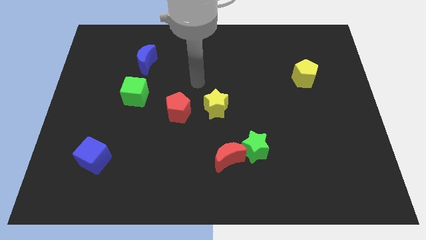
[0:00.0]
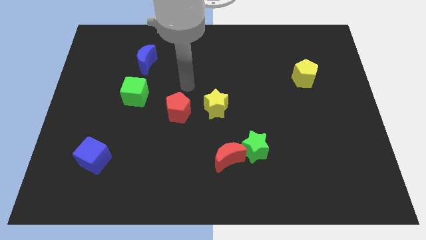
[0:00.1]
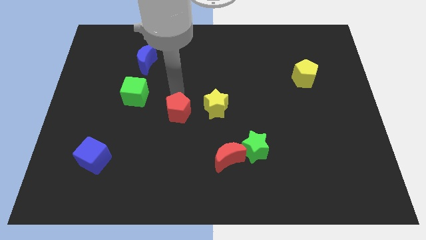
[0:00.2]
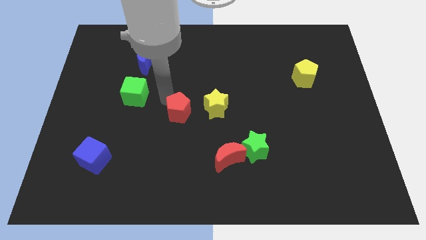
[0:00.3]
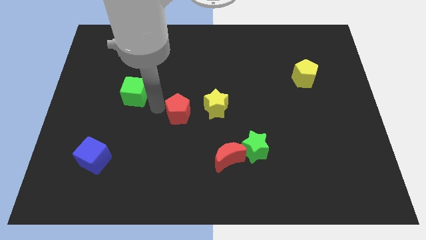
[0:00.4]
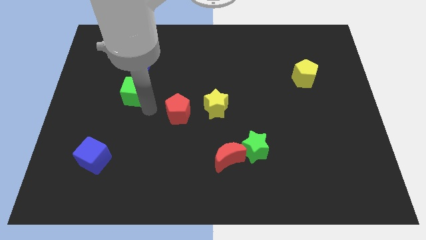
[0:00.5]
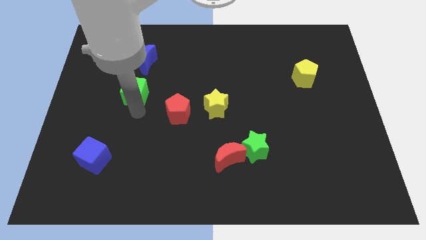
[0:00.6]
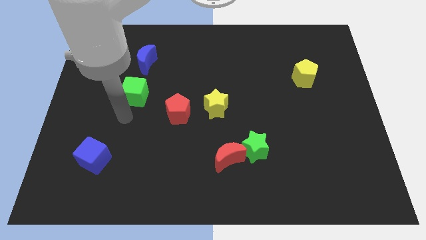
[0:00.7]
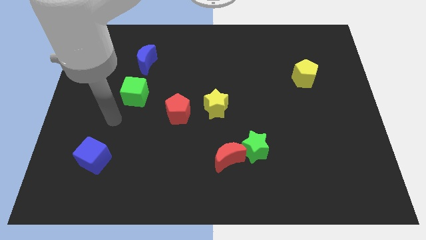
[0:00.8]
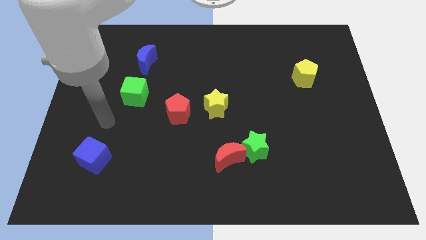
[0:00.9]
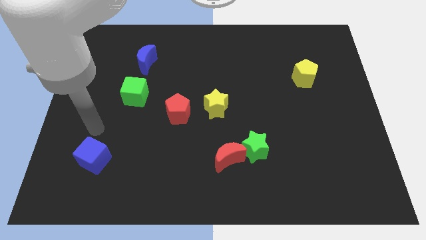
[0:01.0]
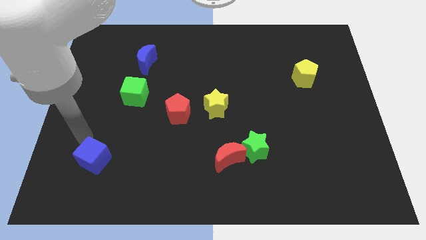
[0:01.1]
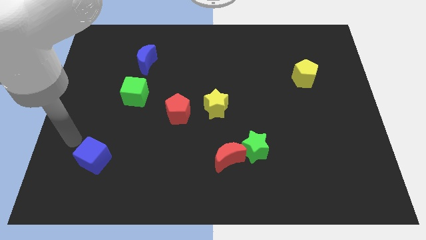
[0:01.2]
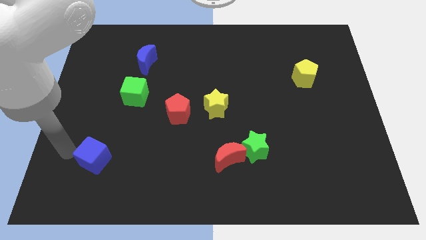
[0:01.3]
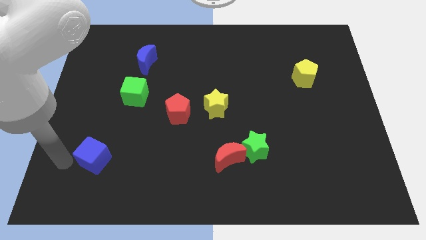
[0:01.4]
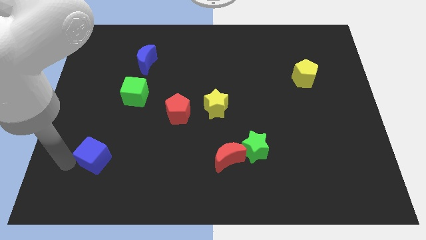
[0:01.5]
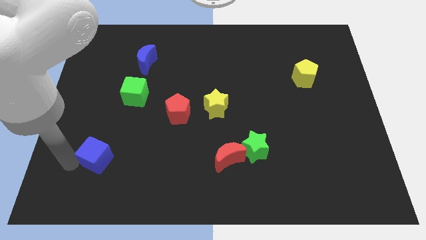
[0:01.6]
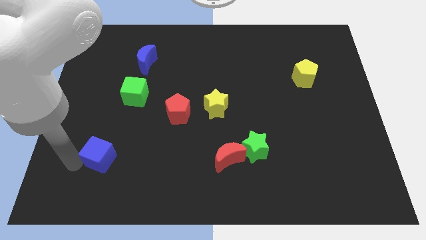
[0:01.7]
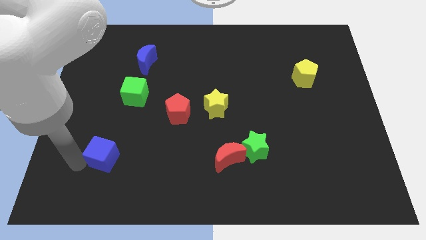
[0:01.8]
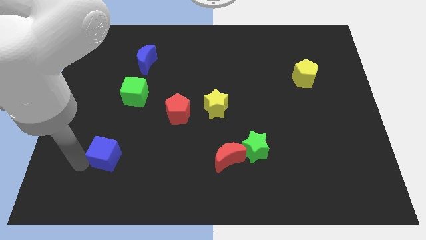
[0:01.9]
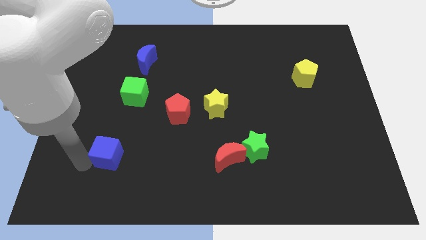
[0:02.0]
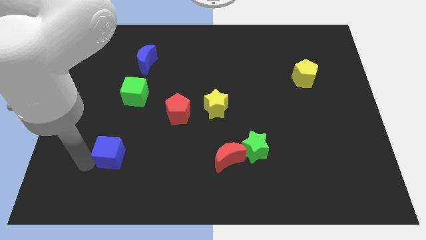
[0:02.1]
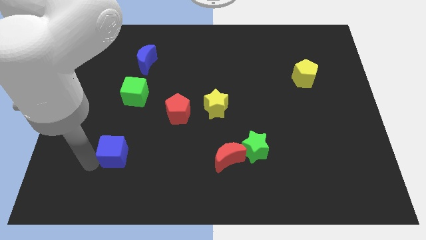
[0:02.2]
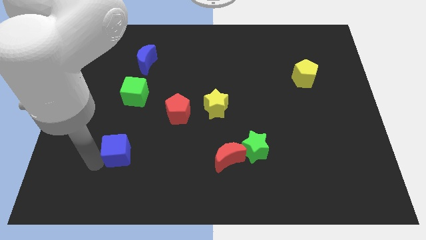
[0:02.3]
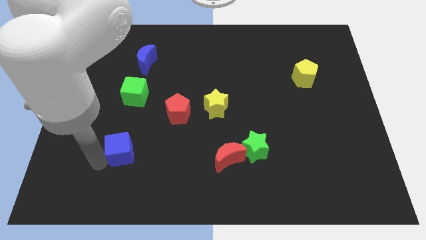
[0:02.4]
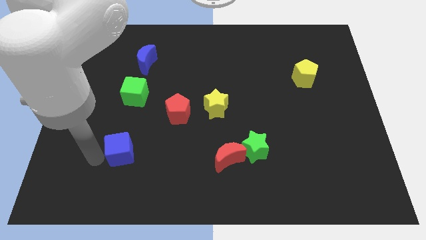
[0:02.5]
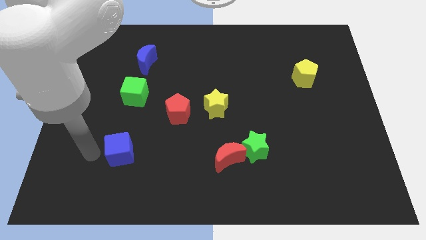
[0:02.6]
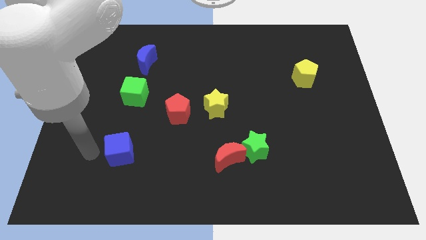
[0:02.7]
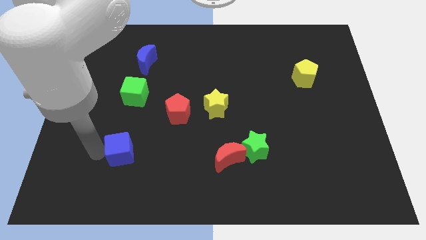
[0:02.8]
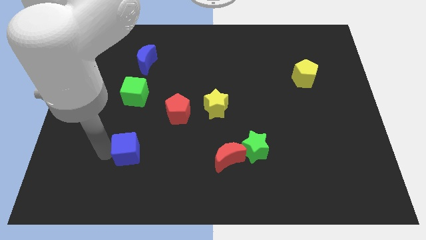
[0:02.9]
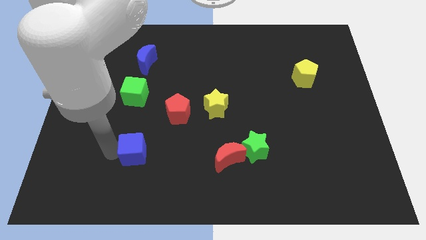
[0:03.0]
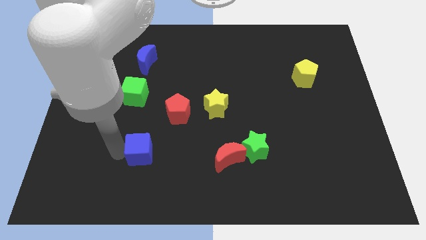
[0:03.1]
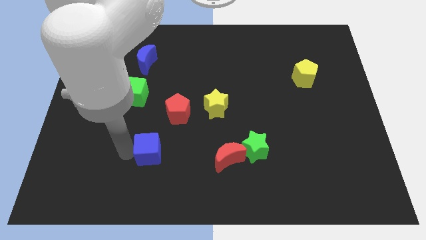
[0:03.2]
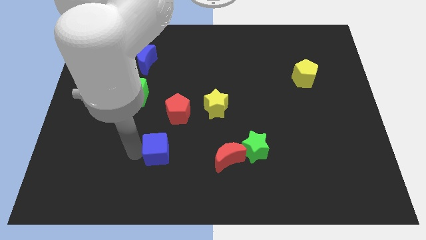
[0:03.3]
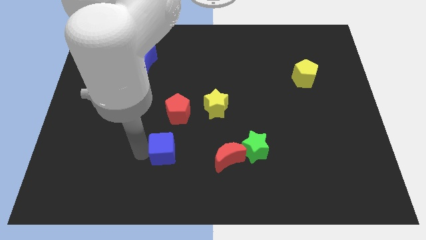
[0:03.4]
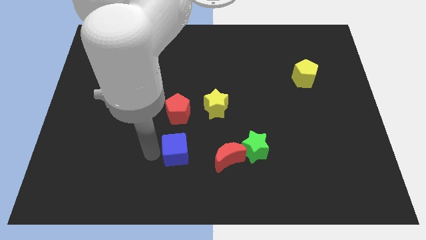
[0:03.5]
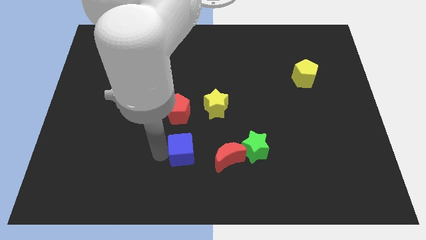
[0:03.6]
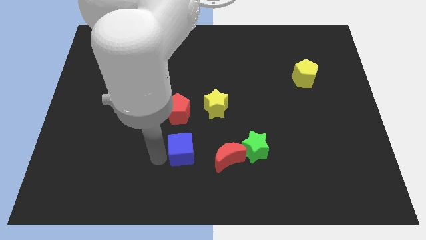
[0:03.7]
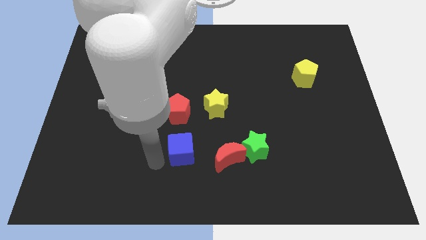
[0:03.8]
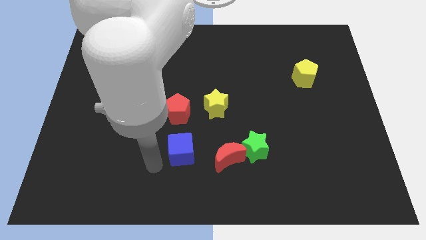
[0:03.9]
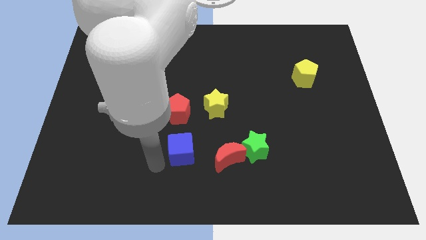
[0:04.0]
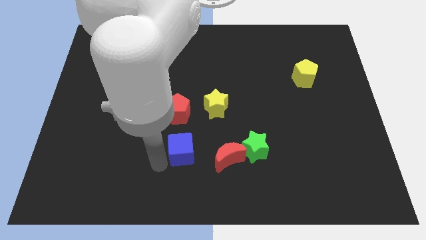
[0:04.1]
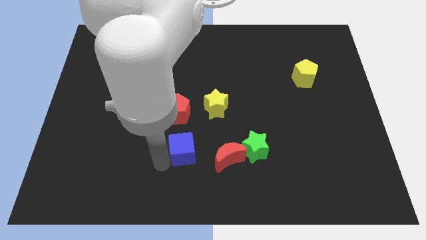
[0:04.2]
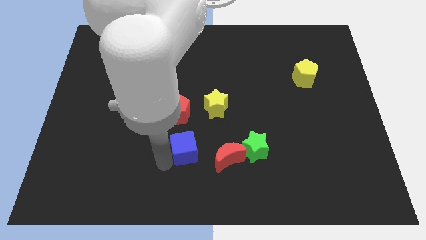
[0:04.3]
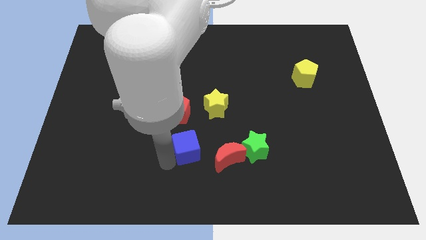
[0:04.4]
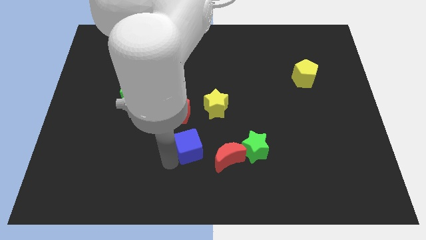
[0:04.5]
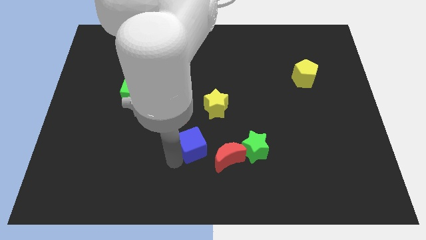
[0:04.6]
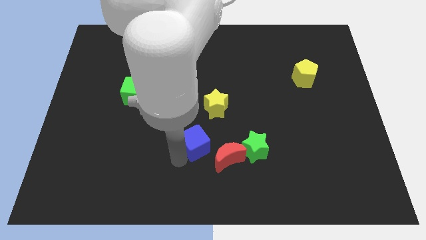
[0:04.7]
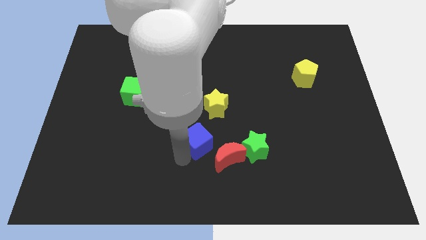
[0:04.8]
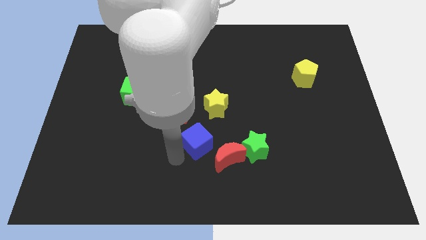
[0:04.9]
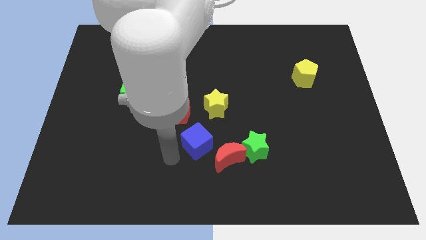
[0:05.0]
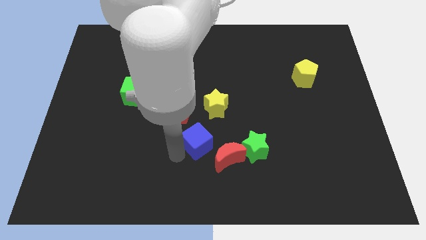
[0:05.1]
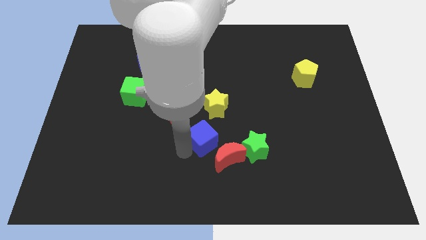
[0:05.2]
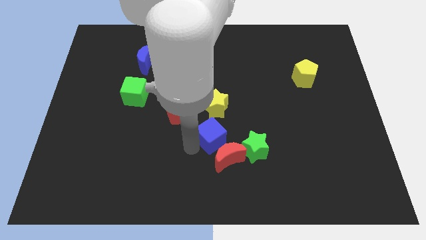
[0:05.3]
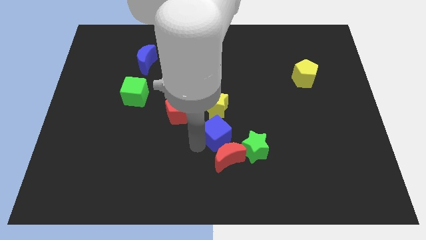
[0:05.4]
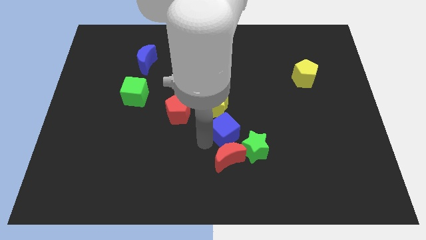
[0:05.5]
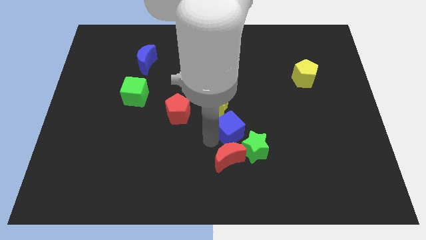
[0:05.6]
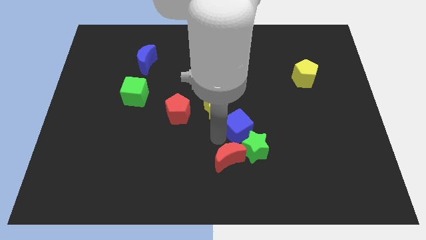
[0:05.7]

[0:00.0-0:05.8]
push the blue cube to the top side of the green star
